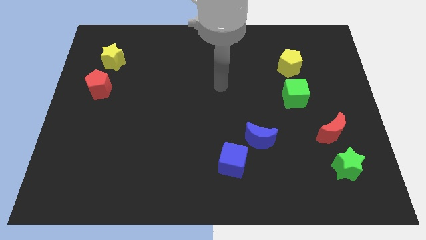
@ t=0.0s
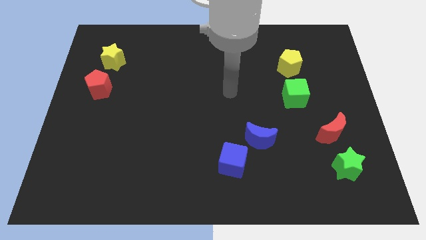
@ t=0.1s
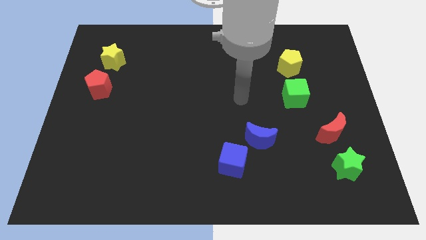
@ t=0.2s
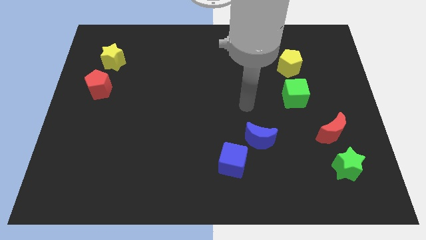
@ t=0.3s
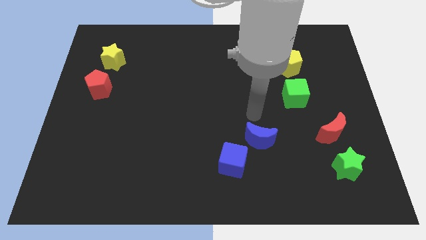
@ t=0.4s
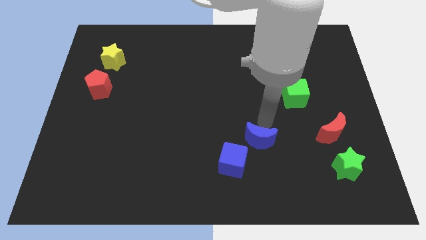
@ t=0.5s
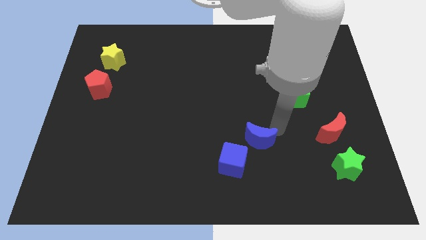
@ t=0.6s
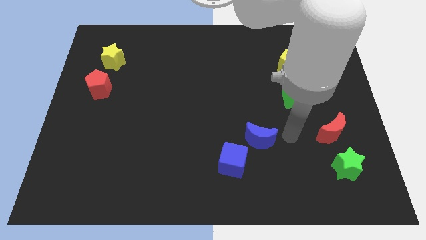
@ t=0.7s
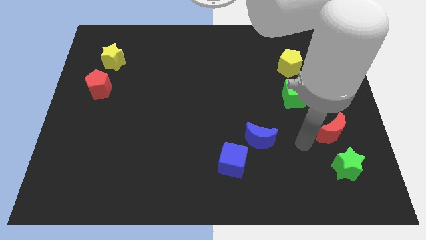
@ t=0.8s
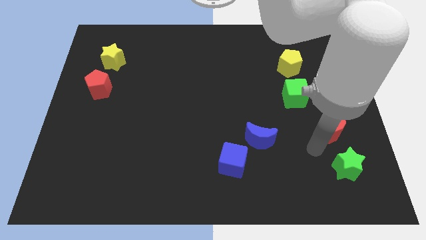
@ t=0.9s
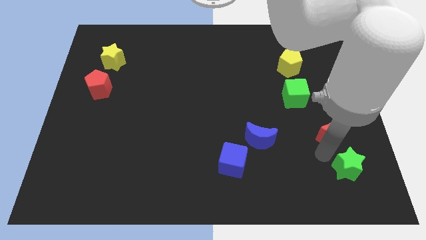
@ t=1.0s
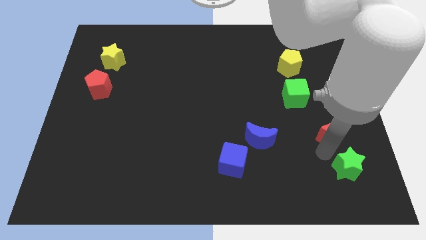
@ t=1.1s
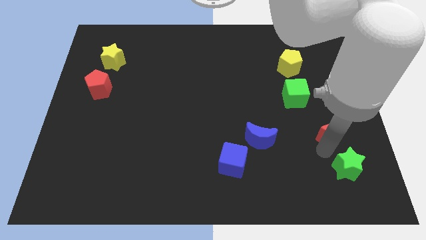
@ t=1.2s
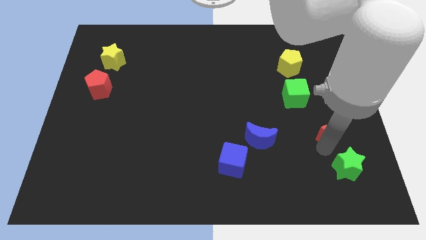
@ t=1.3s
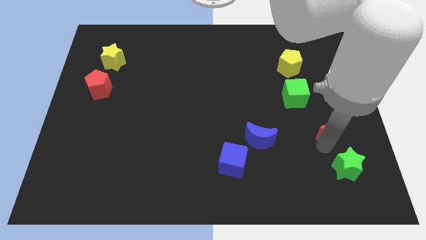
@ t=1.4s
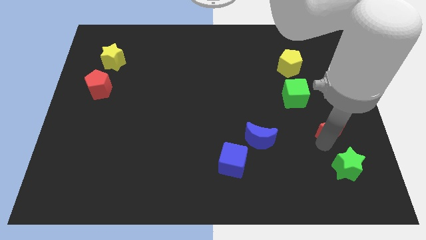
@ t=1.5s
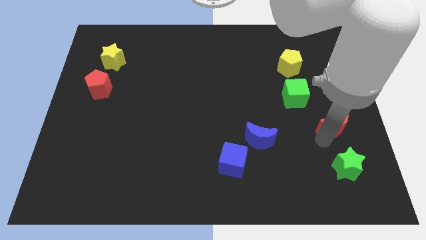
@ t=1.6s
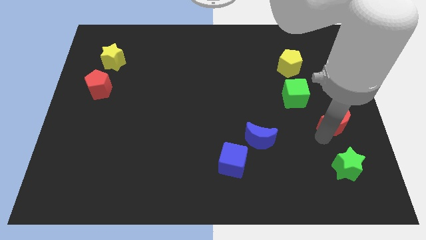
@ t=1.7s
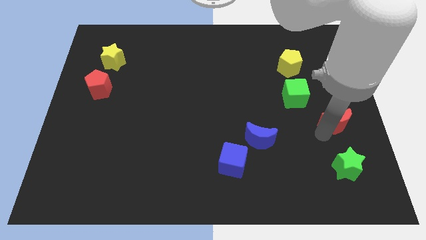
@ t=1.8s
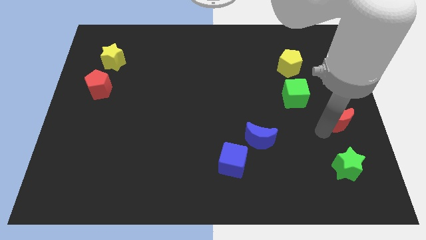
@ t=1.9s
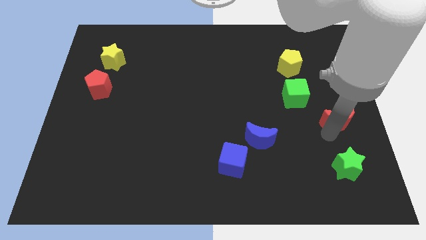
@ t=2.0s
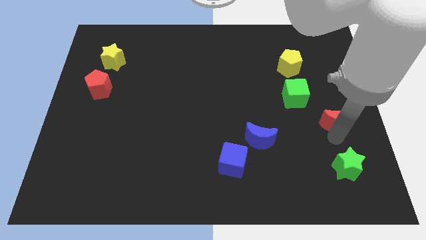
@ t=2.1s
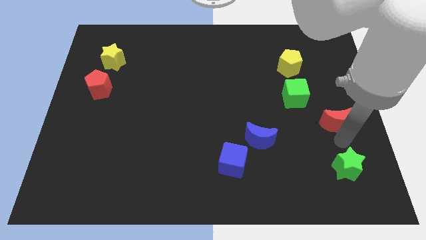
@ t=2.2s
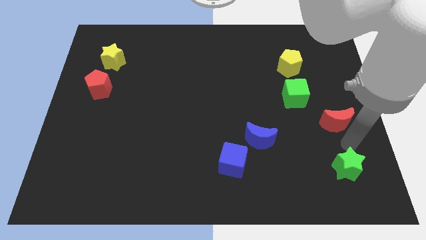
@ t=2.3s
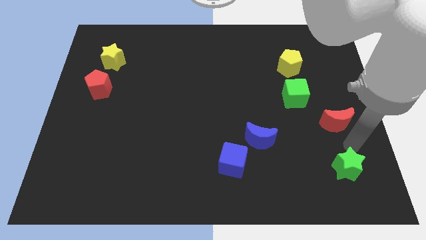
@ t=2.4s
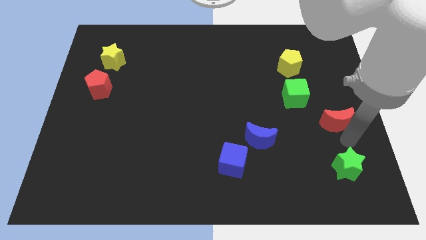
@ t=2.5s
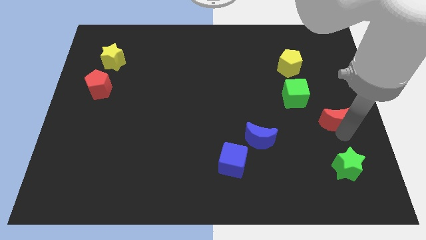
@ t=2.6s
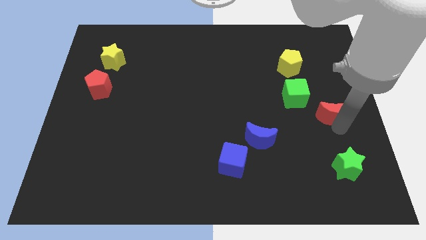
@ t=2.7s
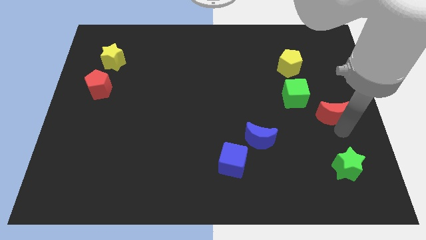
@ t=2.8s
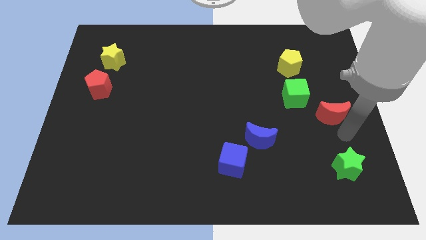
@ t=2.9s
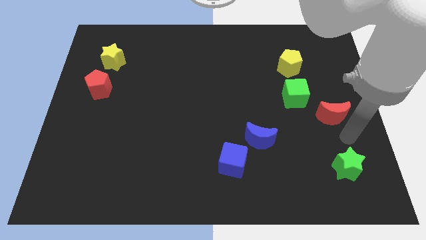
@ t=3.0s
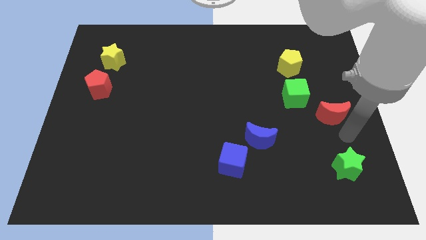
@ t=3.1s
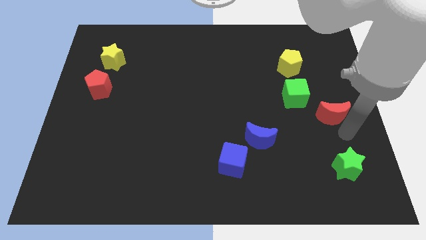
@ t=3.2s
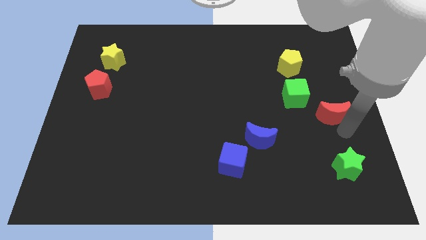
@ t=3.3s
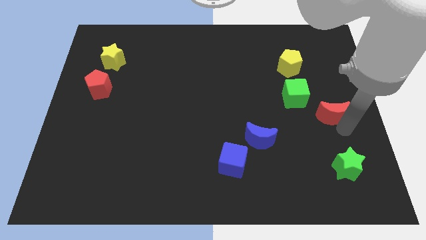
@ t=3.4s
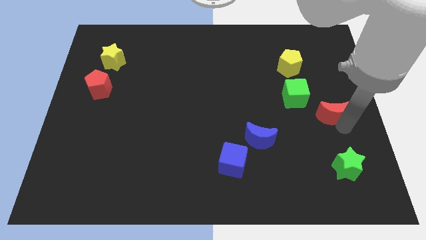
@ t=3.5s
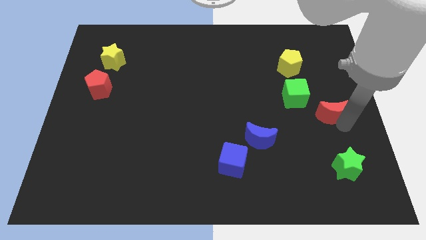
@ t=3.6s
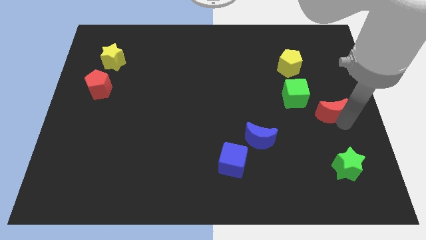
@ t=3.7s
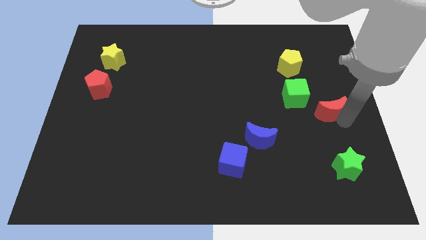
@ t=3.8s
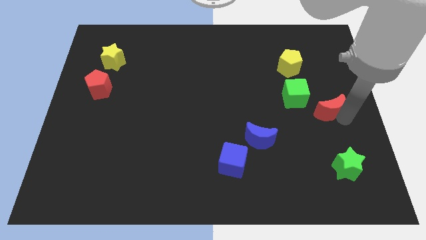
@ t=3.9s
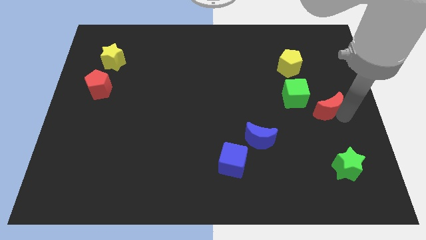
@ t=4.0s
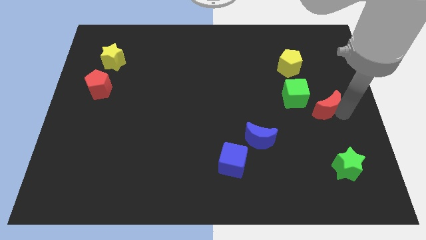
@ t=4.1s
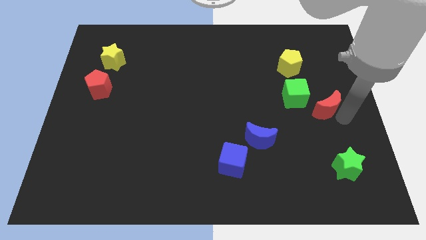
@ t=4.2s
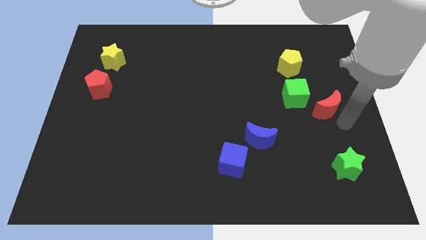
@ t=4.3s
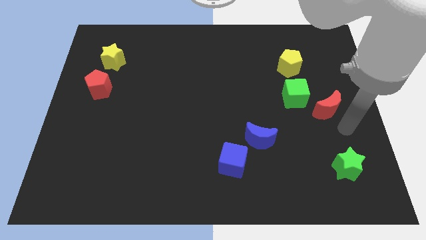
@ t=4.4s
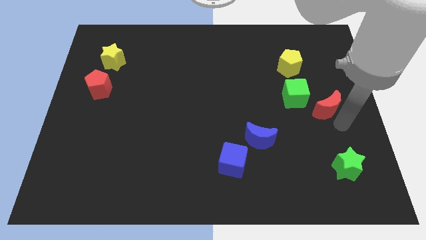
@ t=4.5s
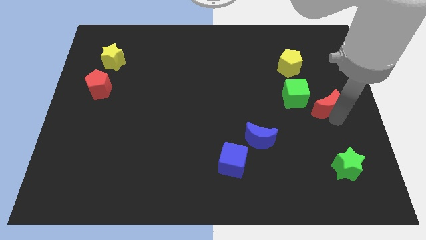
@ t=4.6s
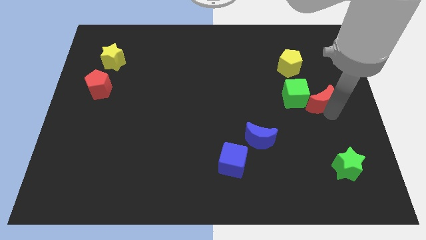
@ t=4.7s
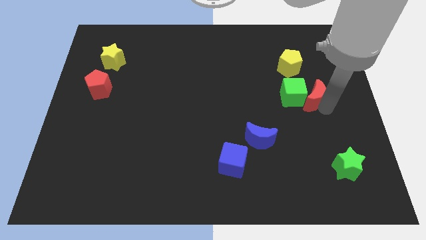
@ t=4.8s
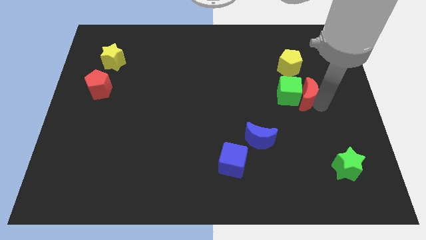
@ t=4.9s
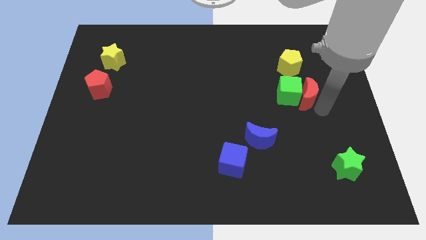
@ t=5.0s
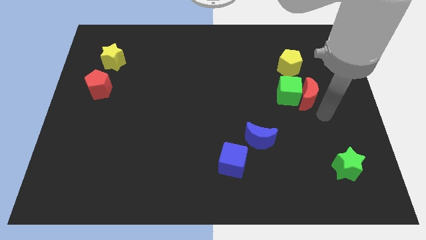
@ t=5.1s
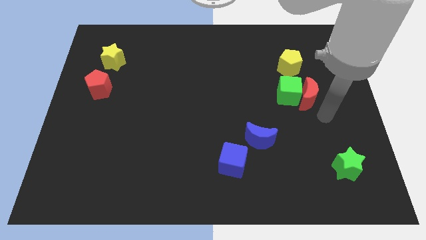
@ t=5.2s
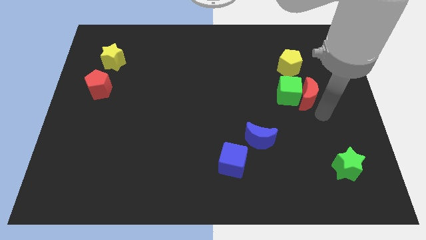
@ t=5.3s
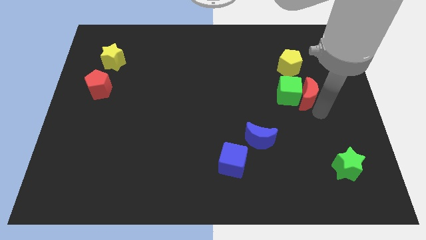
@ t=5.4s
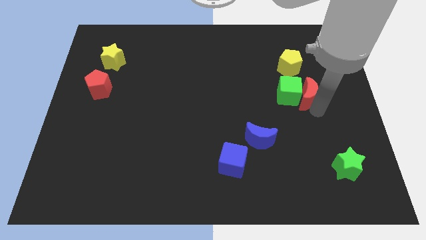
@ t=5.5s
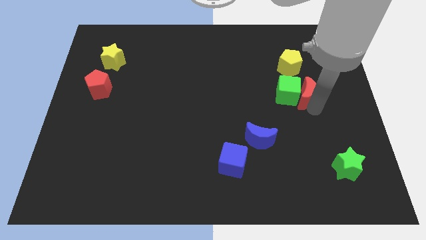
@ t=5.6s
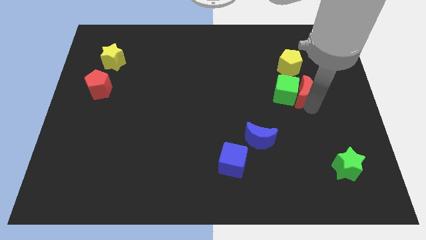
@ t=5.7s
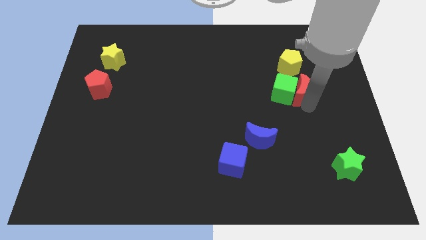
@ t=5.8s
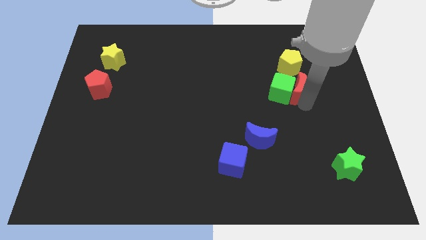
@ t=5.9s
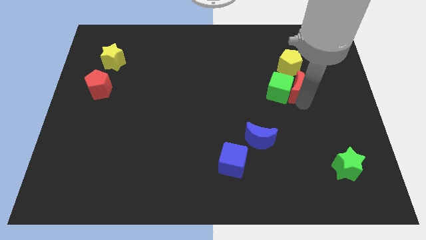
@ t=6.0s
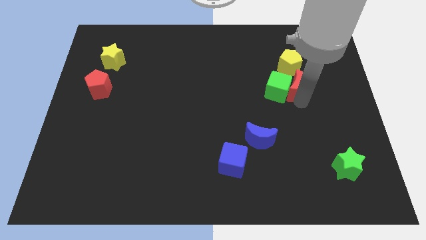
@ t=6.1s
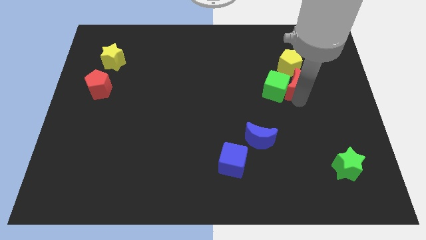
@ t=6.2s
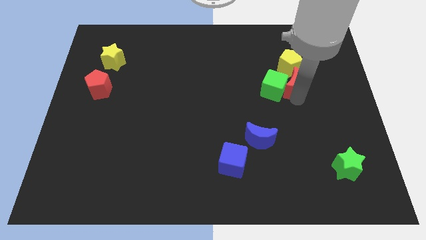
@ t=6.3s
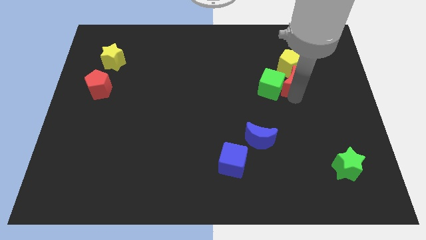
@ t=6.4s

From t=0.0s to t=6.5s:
push the red moon next to the yellow pentagon
